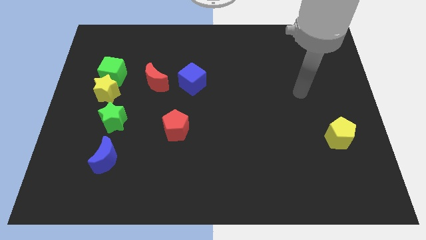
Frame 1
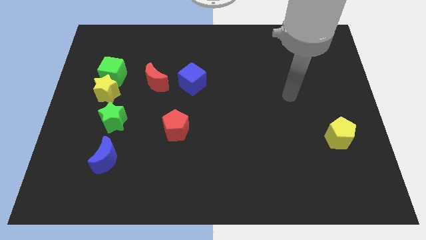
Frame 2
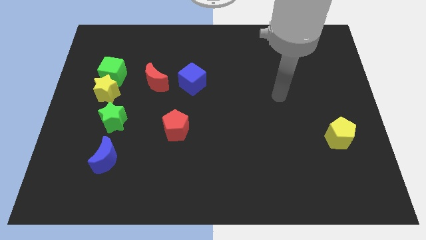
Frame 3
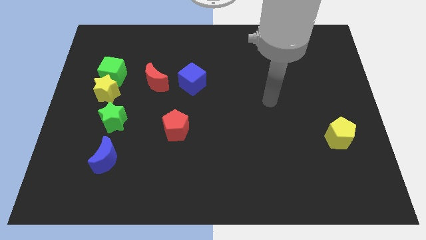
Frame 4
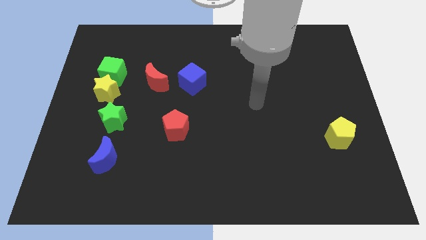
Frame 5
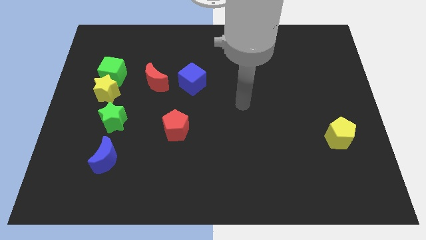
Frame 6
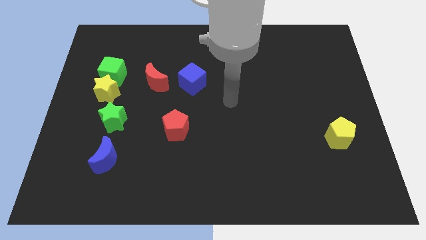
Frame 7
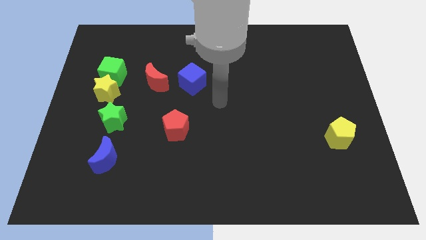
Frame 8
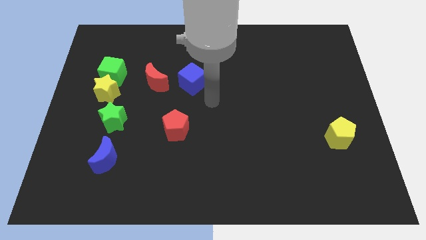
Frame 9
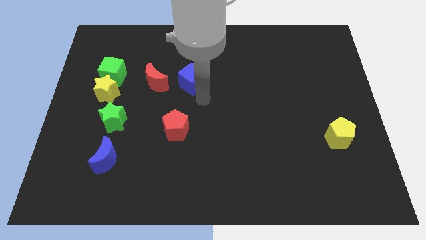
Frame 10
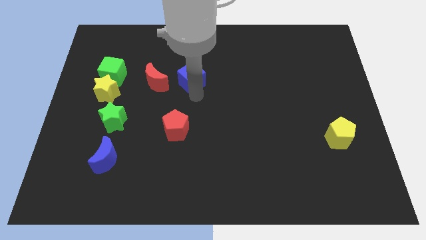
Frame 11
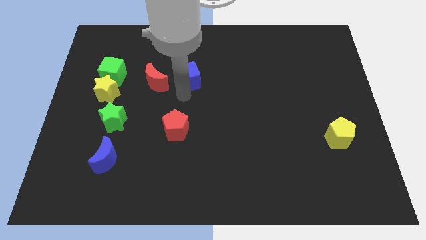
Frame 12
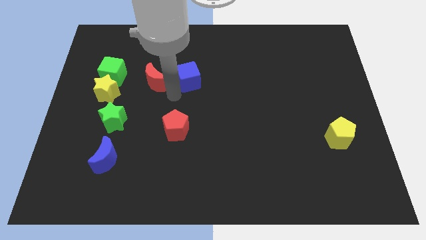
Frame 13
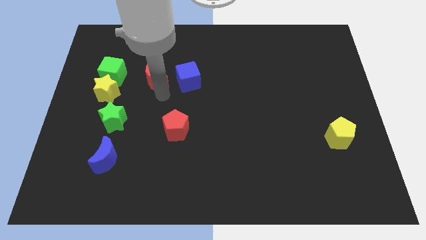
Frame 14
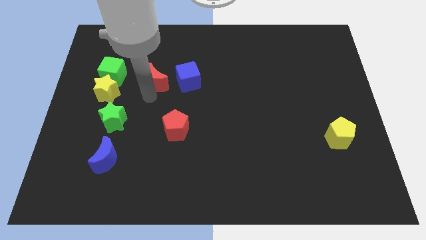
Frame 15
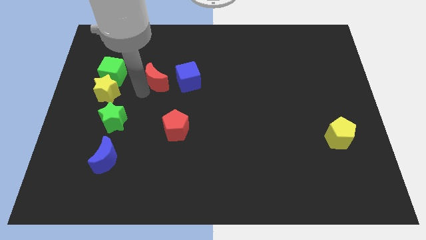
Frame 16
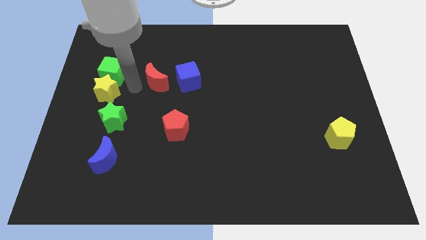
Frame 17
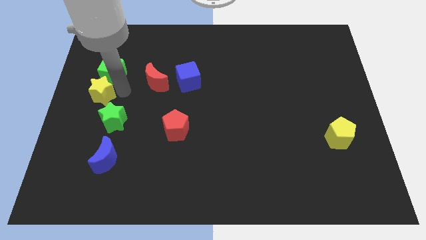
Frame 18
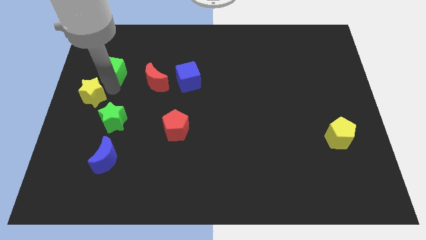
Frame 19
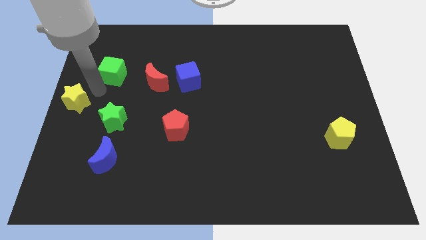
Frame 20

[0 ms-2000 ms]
separate the green cube from the yellow star

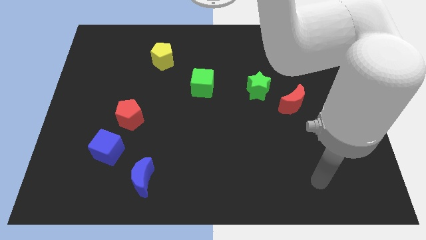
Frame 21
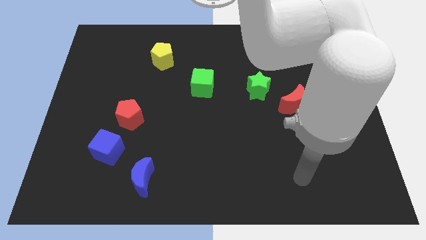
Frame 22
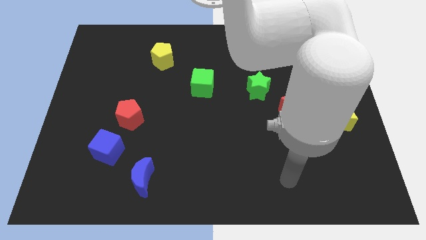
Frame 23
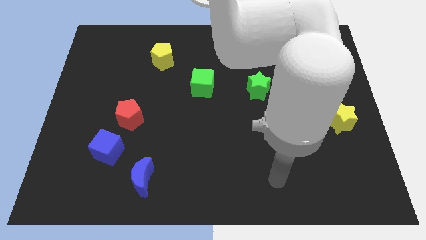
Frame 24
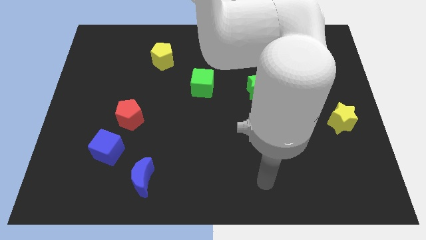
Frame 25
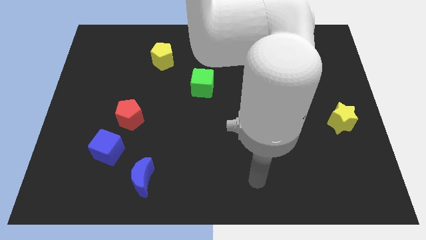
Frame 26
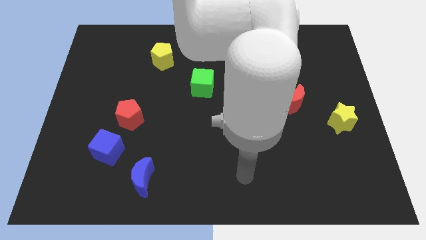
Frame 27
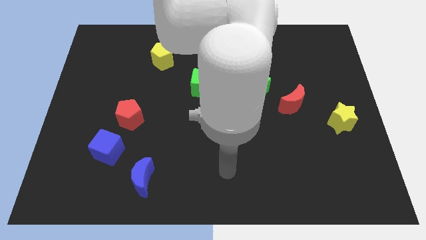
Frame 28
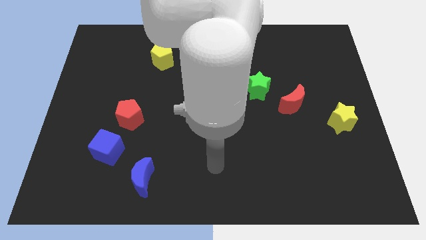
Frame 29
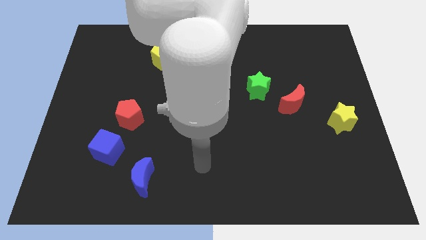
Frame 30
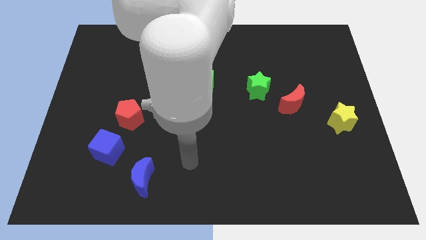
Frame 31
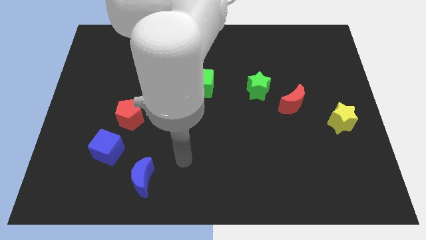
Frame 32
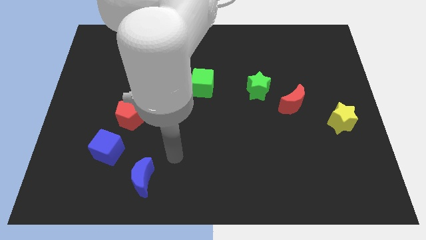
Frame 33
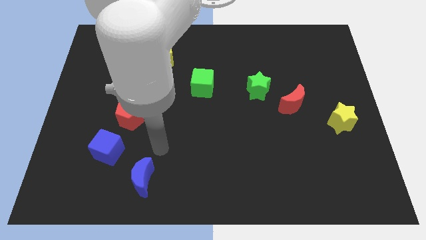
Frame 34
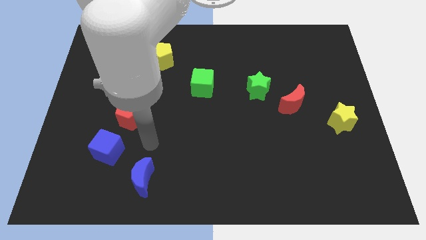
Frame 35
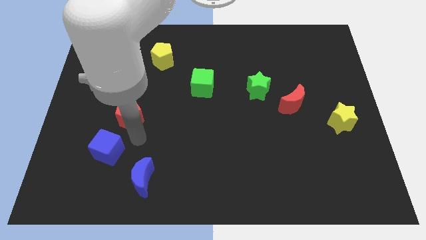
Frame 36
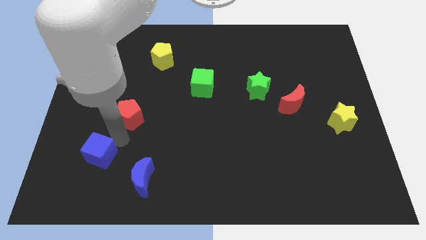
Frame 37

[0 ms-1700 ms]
separate the red pentagon from the blue cube

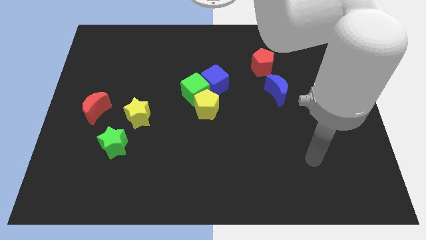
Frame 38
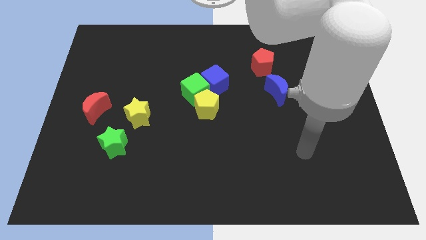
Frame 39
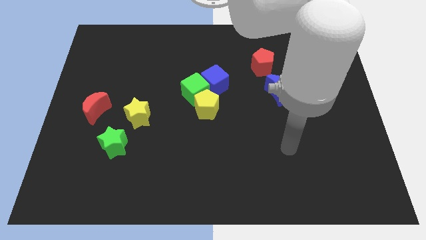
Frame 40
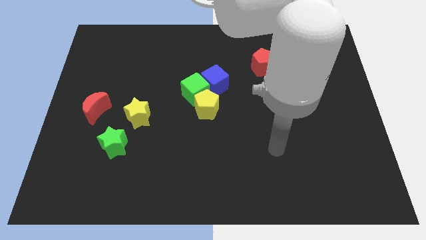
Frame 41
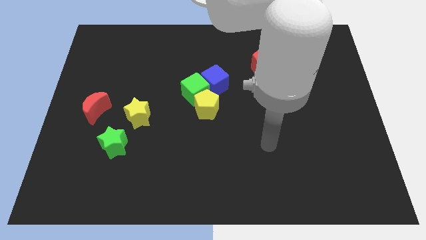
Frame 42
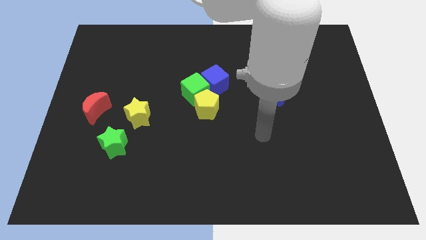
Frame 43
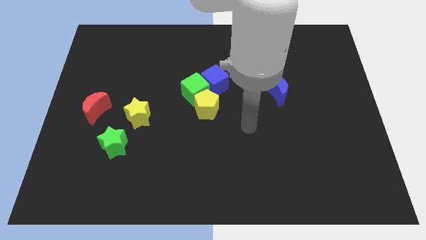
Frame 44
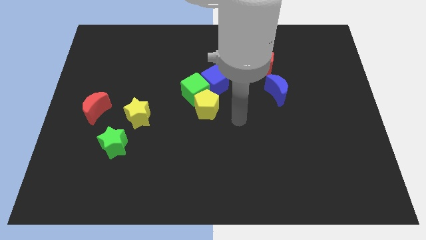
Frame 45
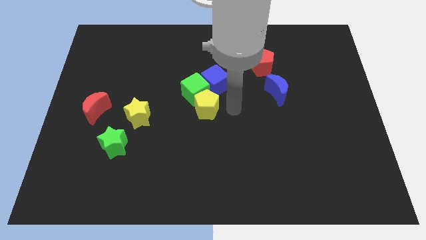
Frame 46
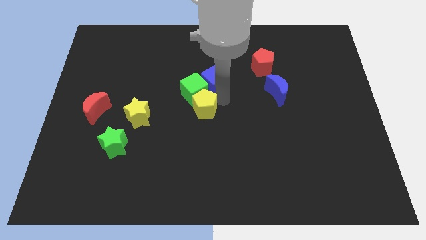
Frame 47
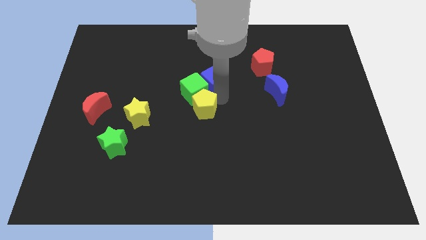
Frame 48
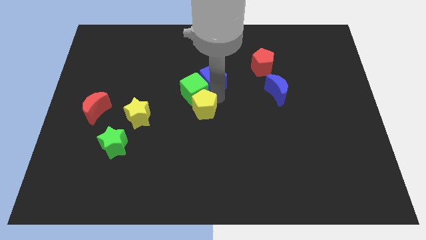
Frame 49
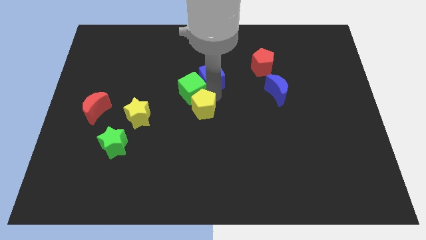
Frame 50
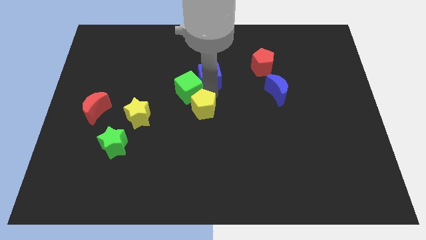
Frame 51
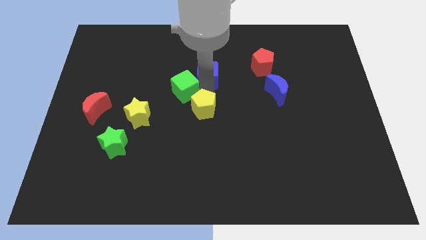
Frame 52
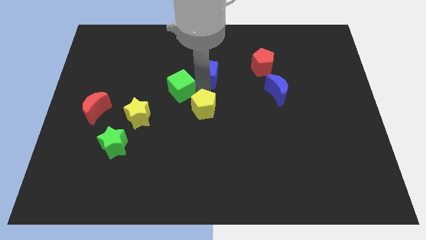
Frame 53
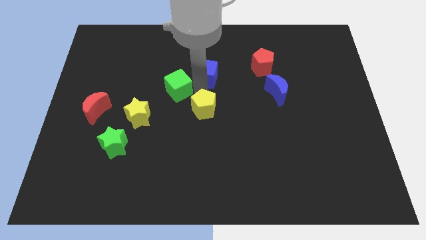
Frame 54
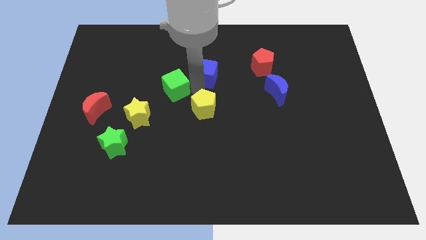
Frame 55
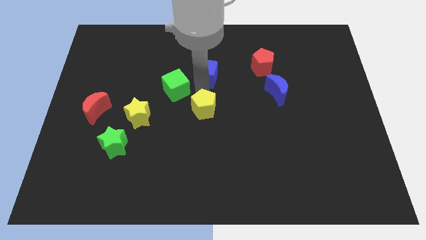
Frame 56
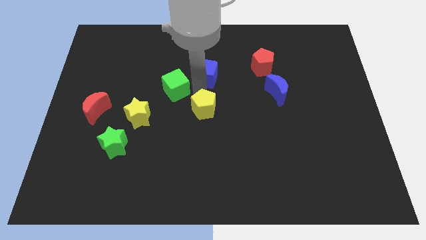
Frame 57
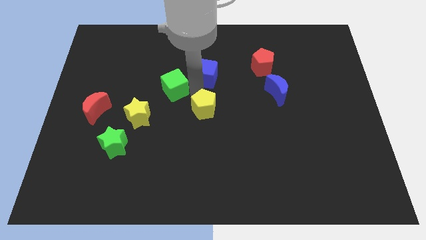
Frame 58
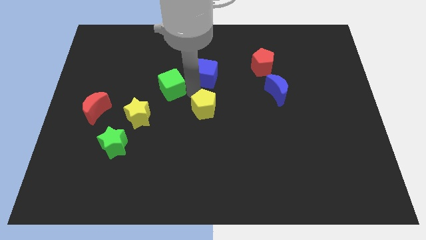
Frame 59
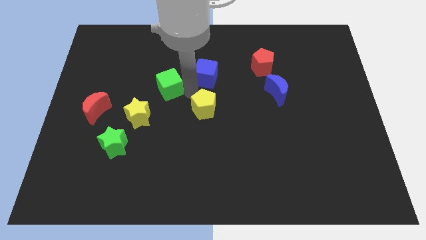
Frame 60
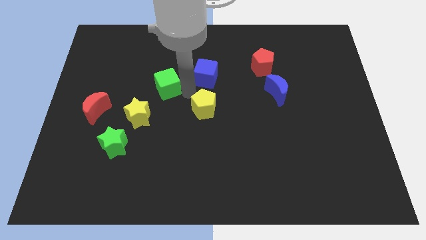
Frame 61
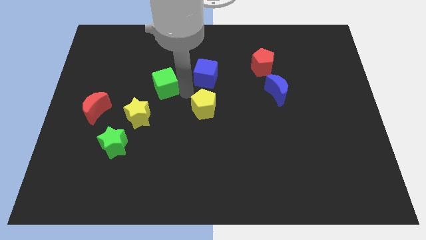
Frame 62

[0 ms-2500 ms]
separate the green cube from the blue cube and yellow pentagon

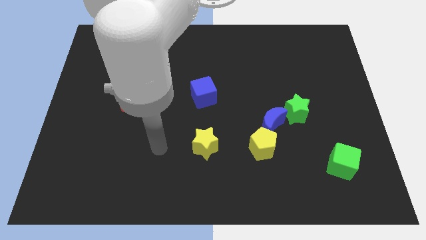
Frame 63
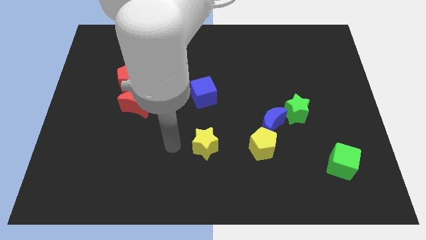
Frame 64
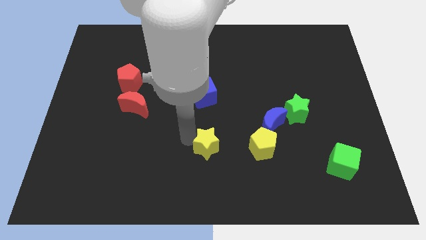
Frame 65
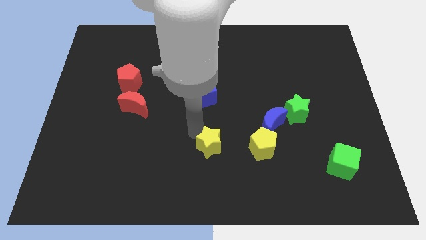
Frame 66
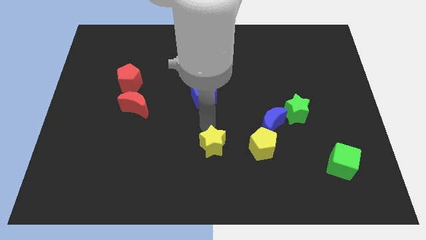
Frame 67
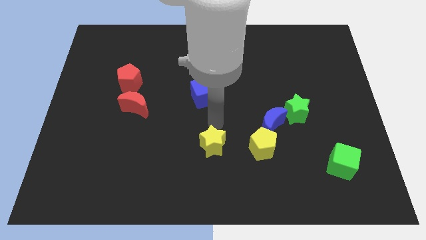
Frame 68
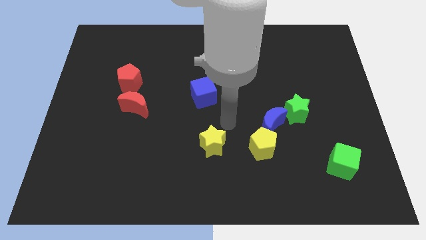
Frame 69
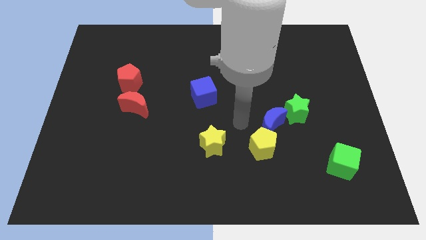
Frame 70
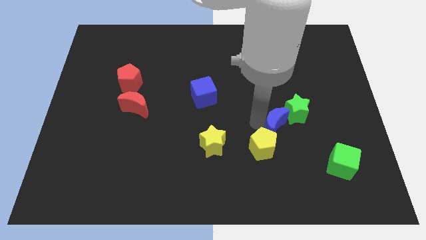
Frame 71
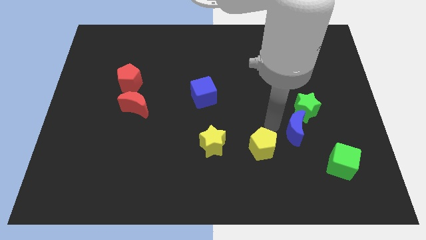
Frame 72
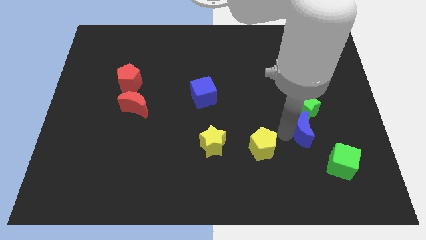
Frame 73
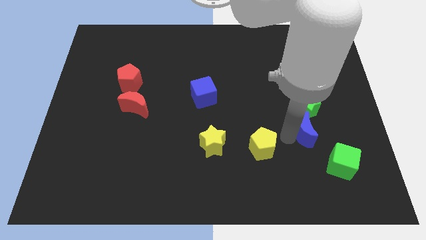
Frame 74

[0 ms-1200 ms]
move the yellow pentagon away from the blue moon

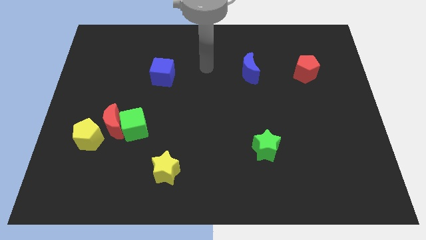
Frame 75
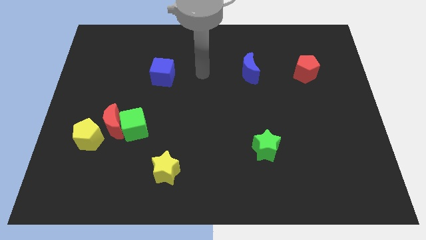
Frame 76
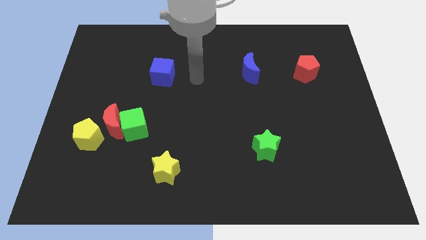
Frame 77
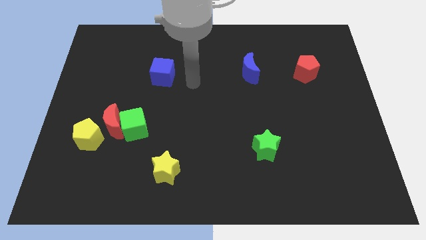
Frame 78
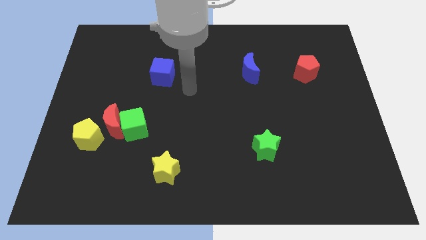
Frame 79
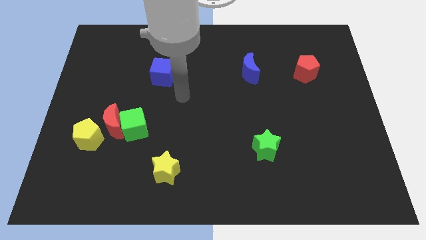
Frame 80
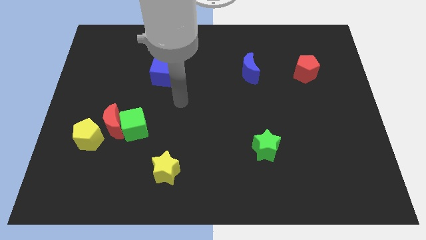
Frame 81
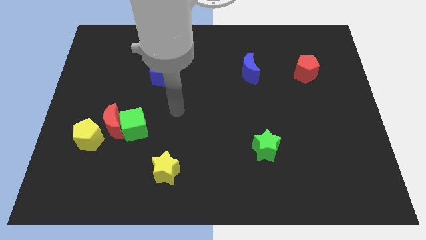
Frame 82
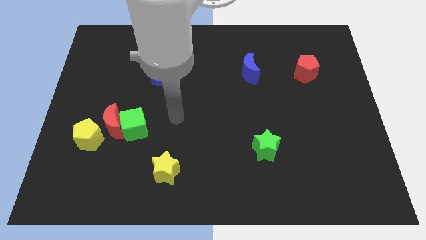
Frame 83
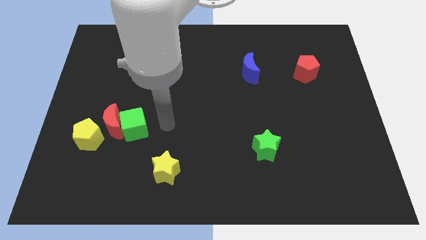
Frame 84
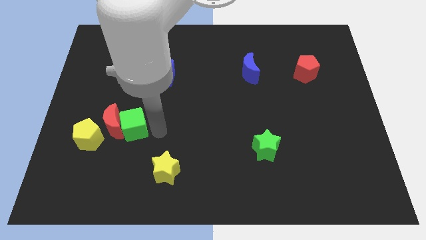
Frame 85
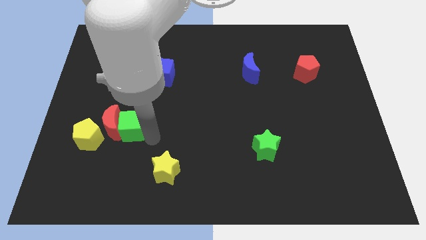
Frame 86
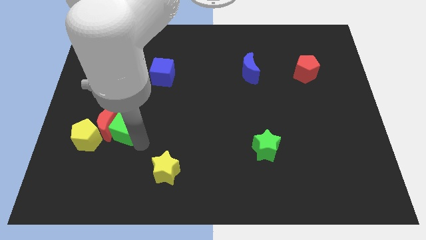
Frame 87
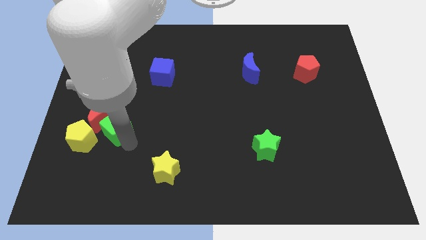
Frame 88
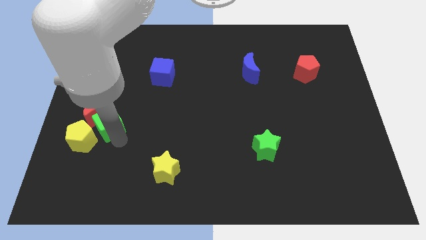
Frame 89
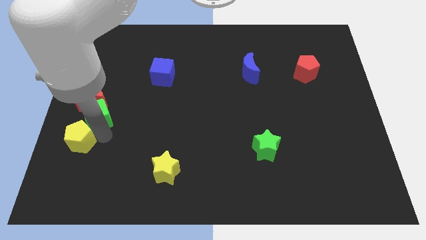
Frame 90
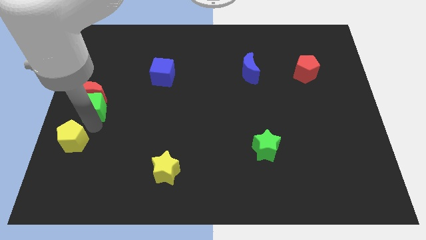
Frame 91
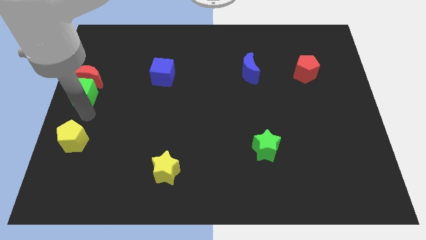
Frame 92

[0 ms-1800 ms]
move the red moon away from the green cube and yellow pentagon

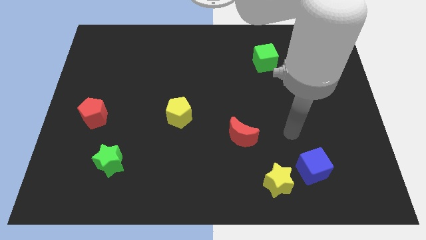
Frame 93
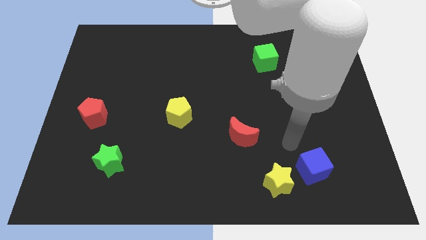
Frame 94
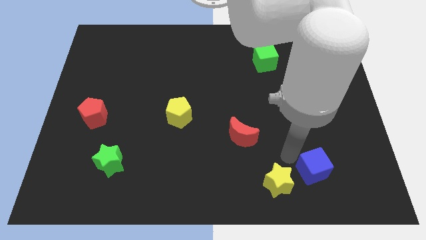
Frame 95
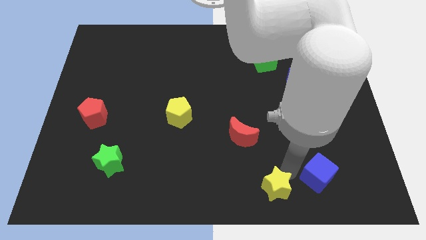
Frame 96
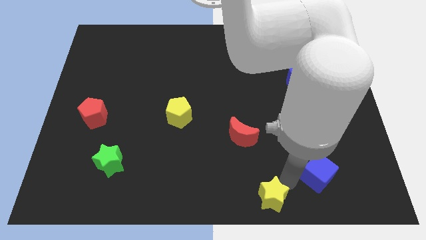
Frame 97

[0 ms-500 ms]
move the blue cube away from the yellow star
